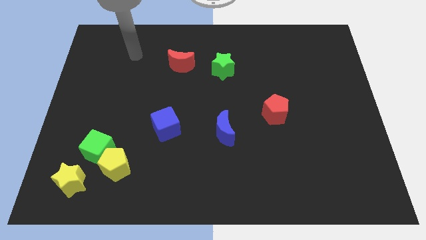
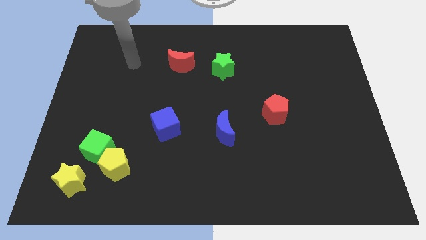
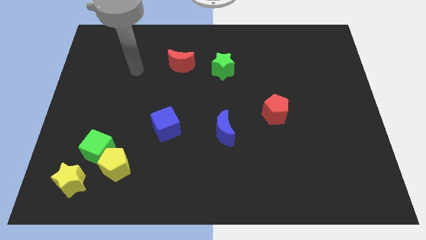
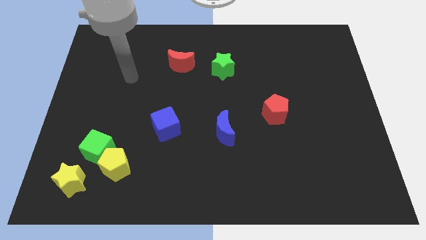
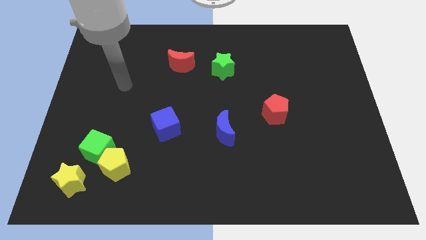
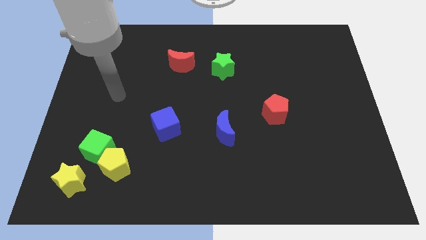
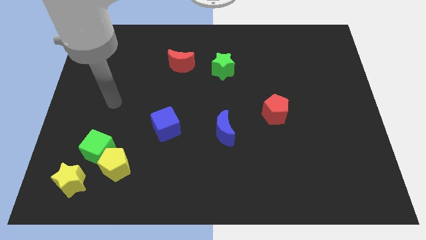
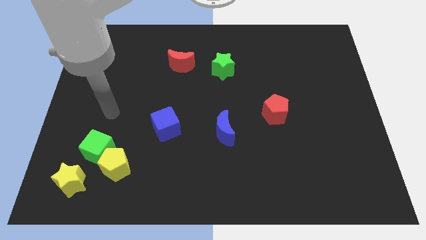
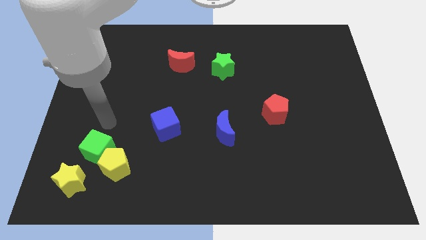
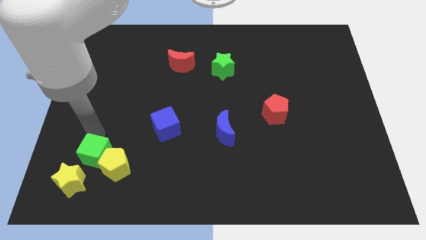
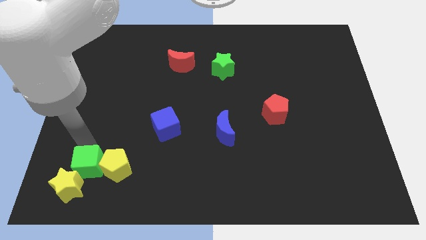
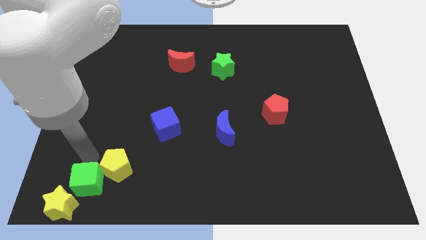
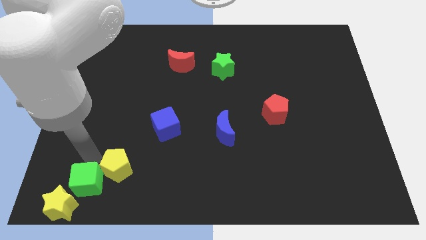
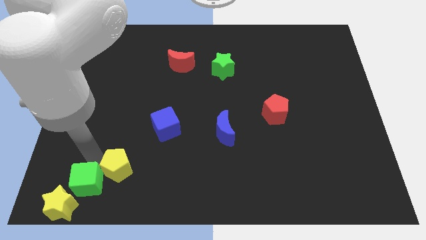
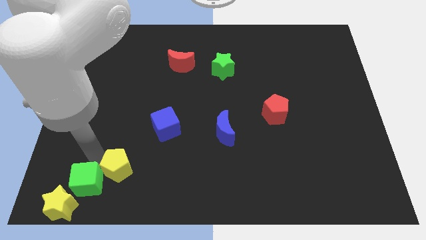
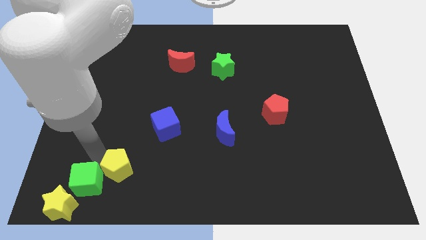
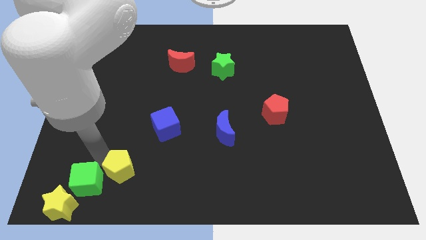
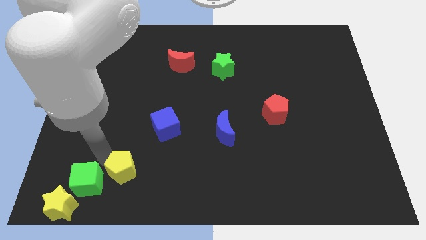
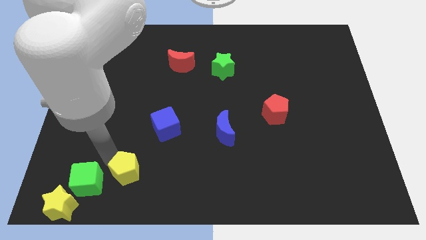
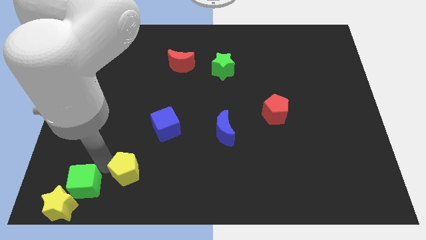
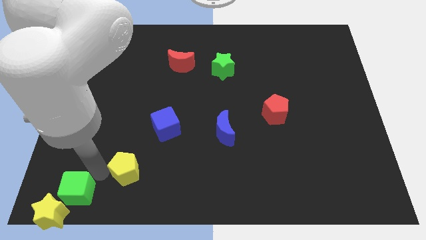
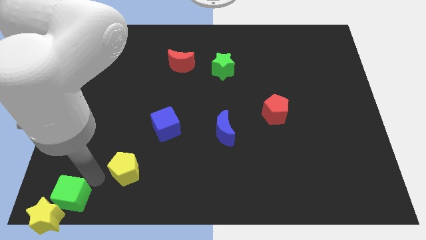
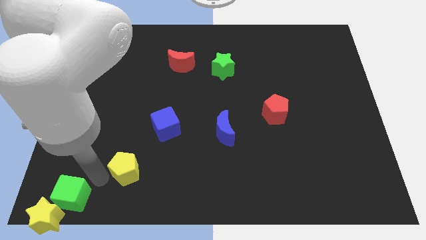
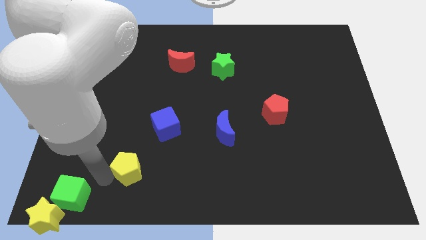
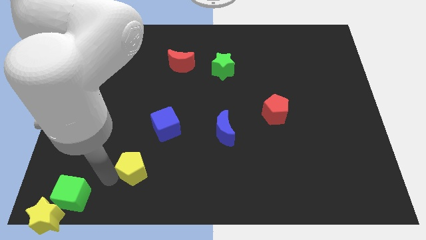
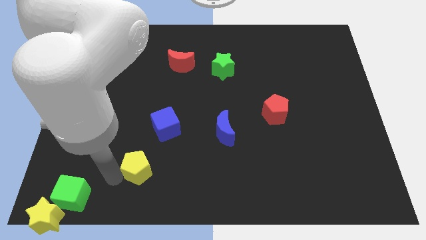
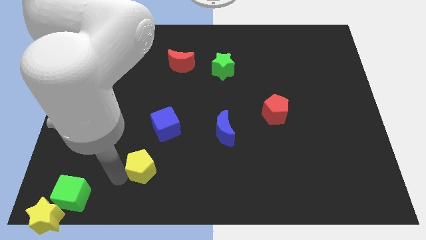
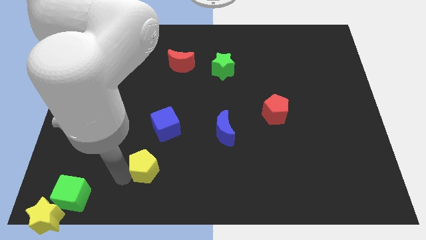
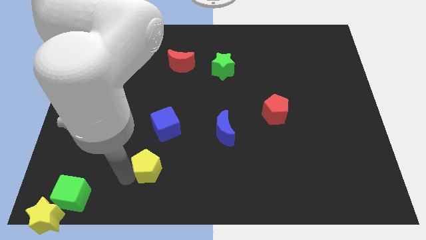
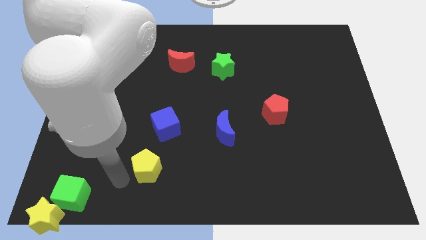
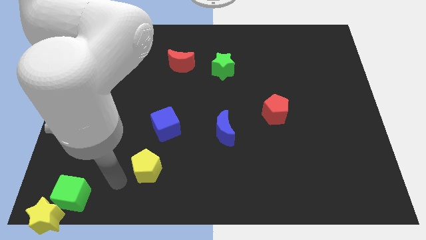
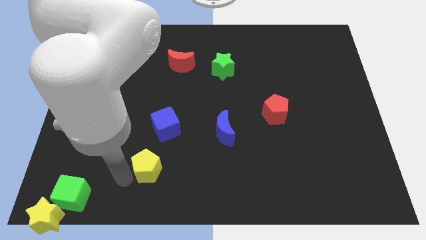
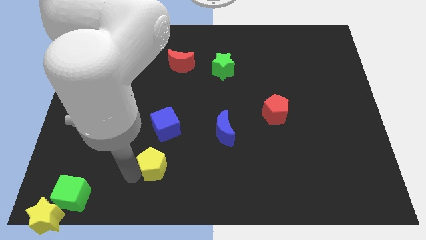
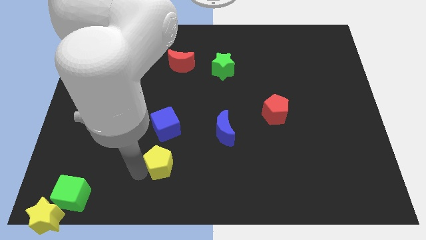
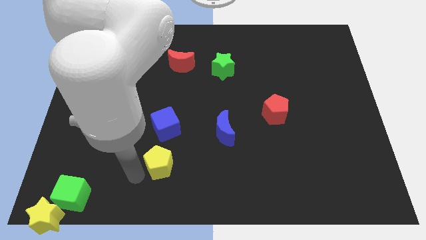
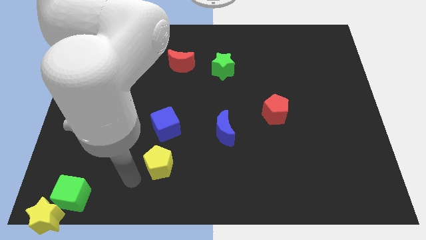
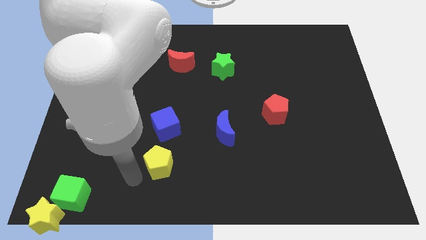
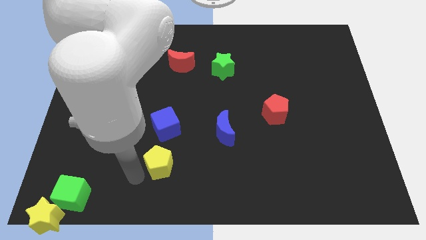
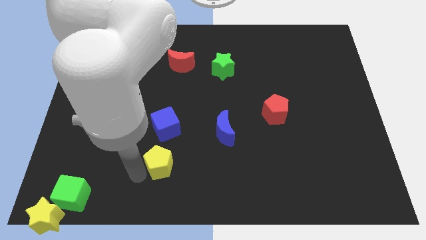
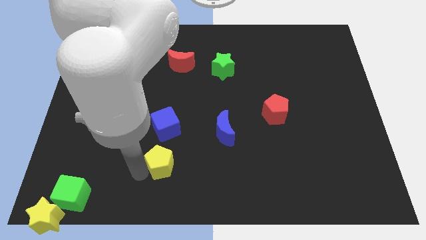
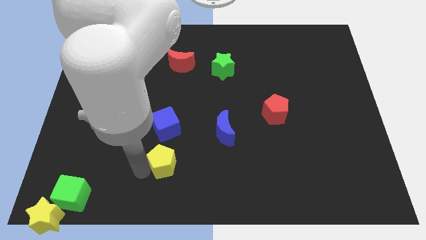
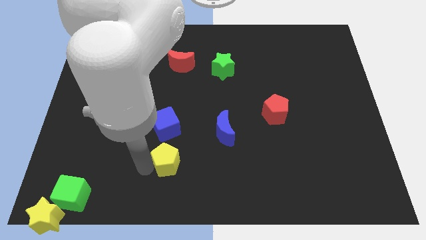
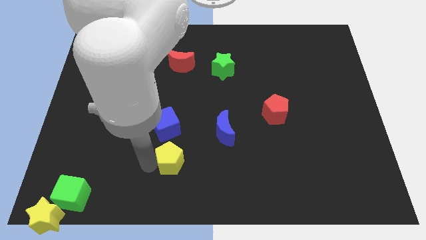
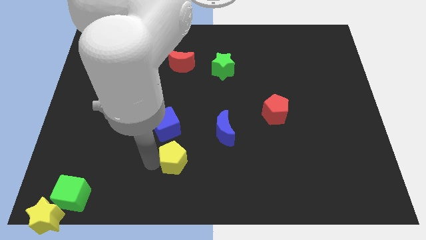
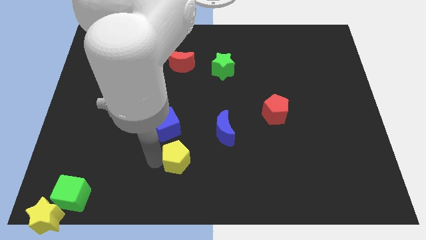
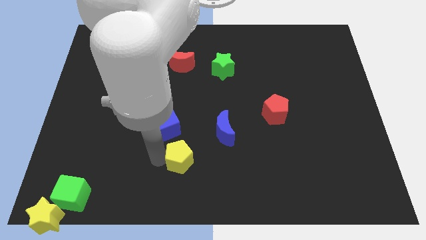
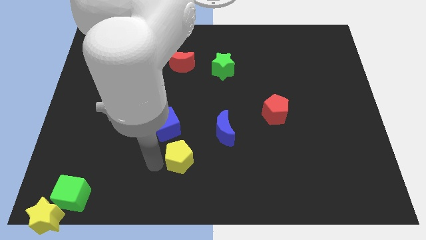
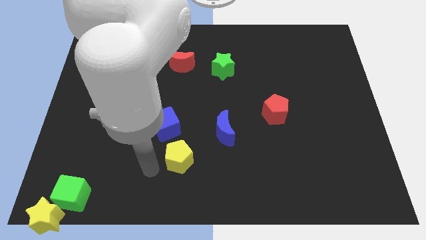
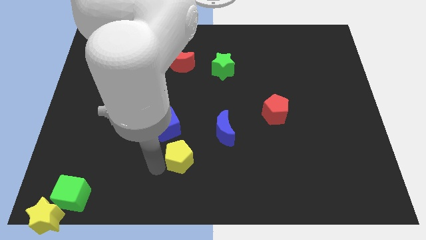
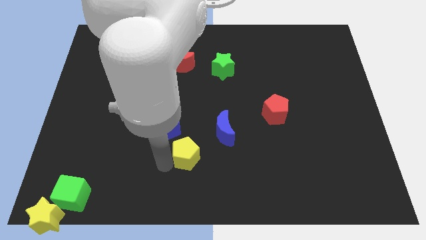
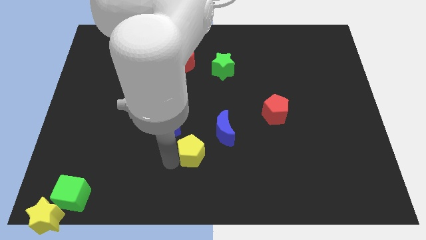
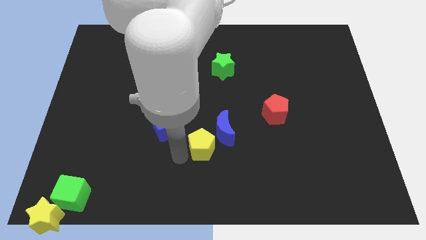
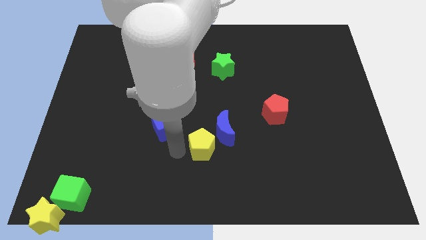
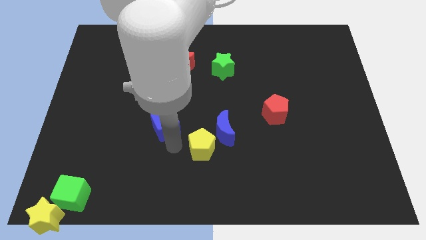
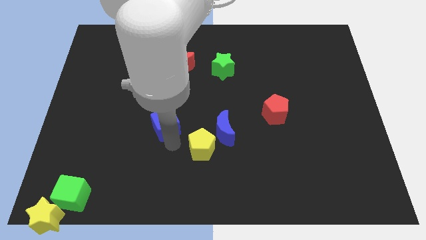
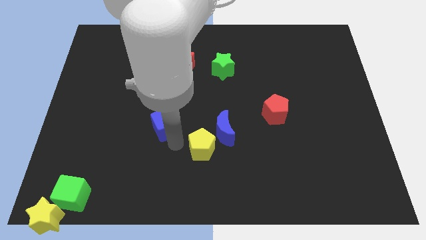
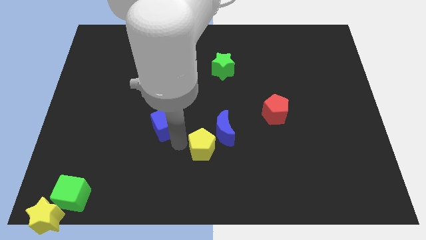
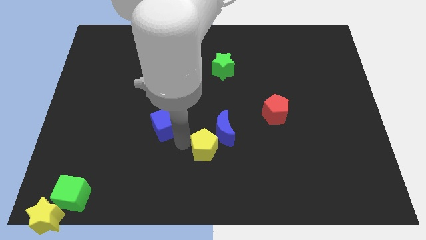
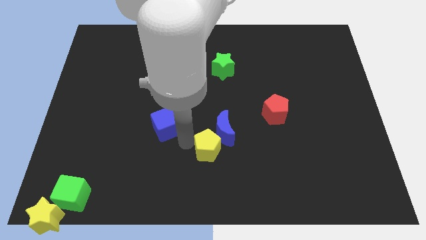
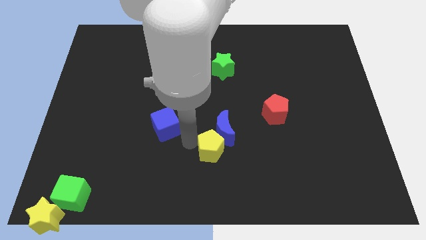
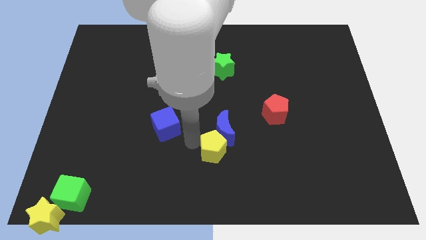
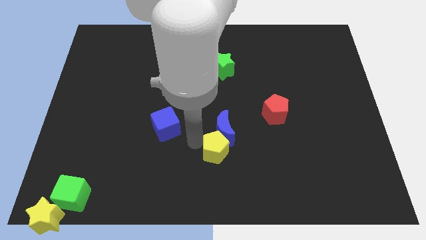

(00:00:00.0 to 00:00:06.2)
put the yellow pentagon diagonally down and to the right of the blue moon
